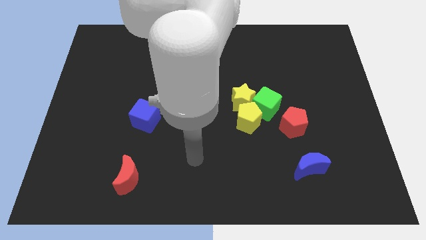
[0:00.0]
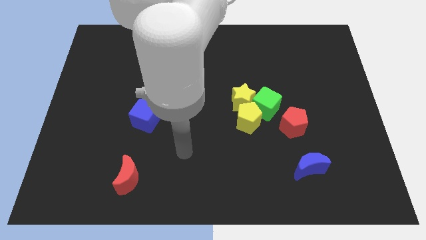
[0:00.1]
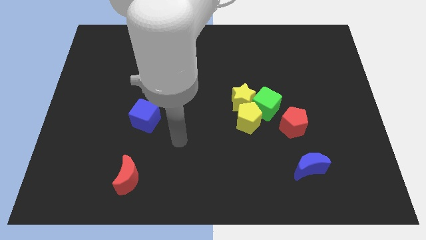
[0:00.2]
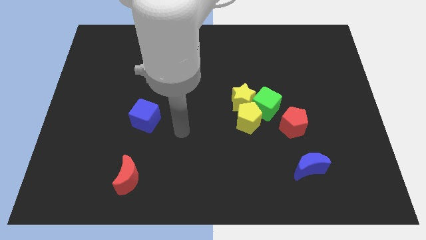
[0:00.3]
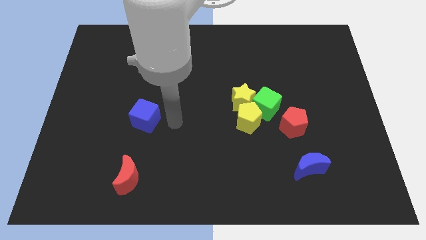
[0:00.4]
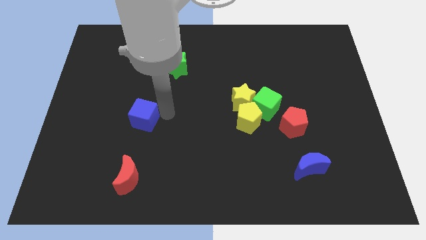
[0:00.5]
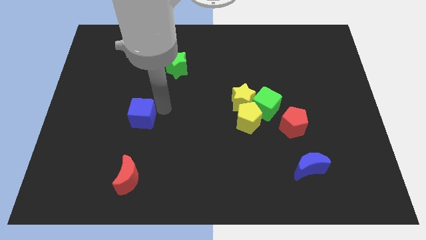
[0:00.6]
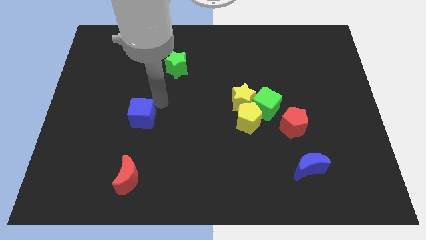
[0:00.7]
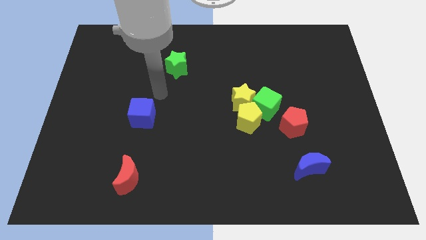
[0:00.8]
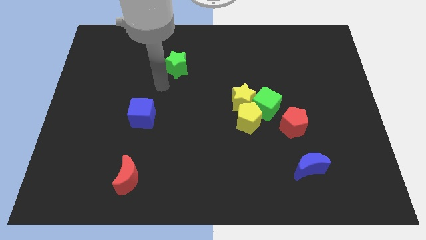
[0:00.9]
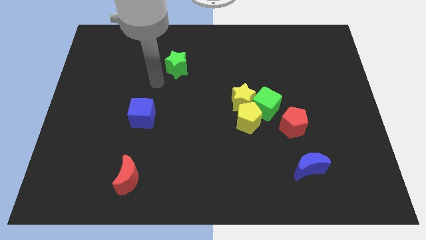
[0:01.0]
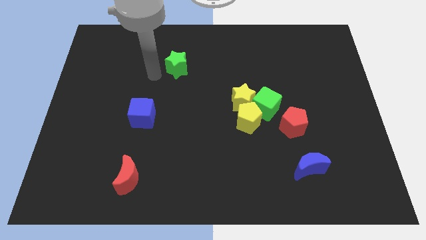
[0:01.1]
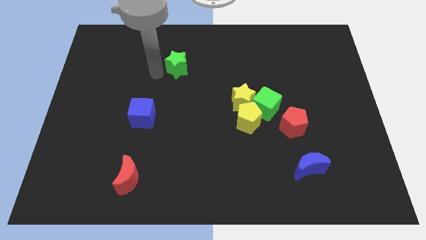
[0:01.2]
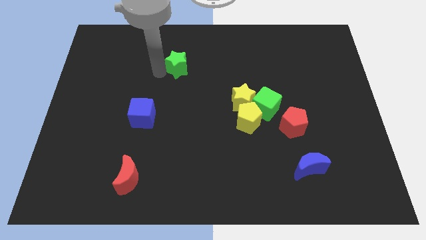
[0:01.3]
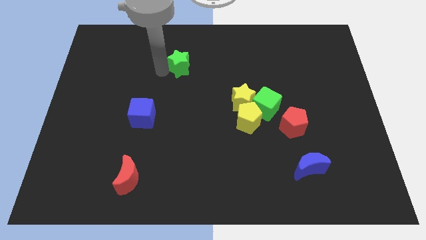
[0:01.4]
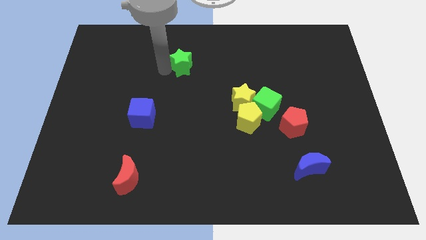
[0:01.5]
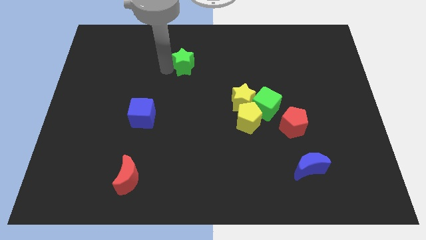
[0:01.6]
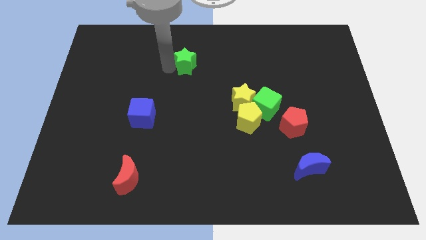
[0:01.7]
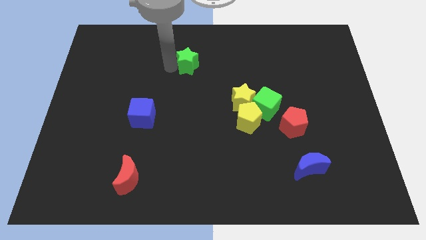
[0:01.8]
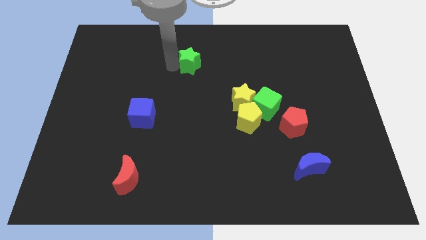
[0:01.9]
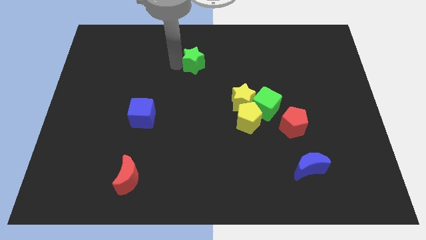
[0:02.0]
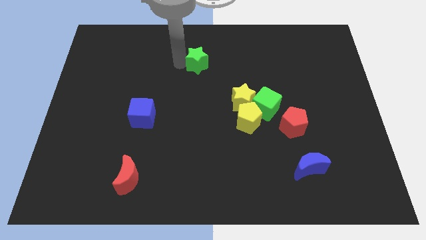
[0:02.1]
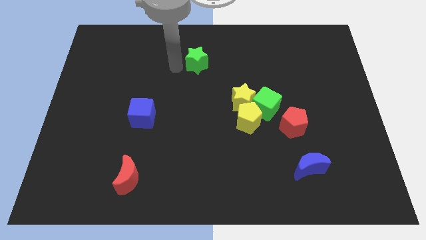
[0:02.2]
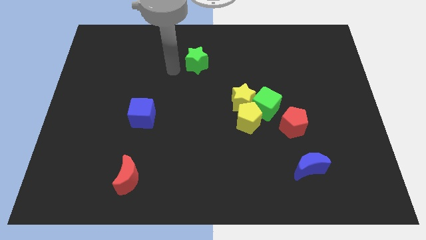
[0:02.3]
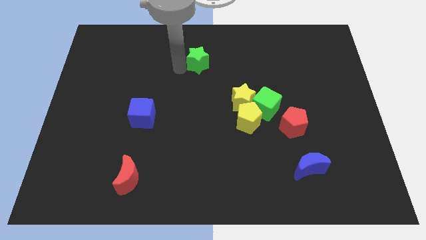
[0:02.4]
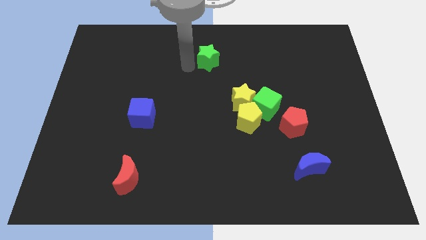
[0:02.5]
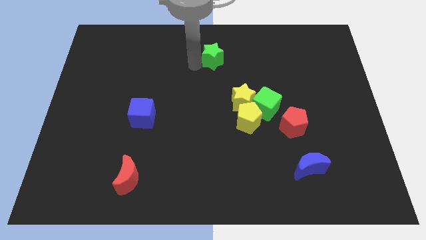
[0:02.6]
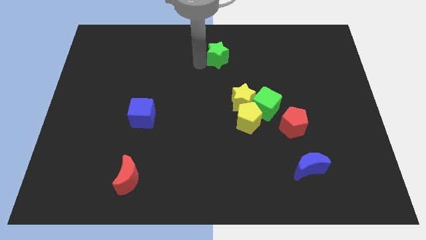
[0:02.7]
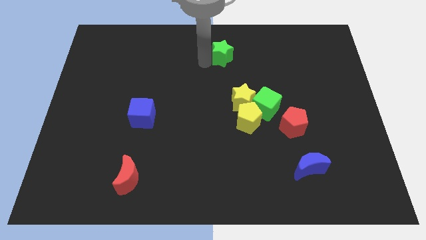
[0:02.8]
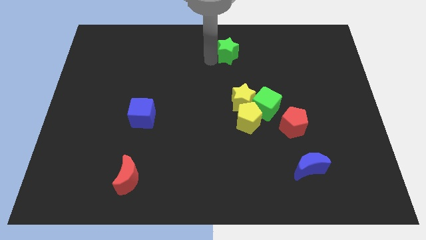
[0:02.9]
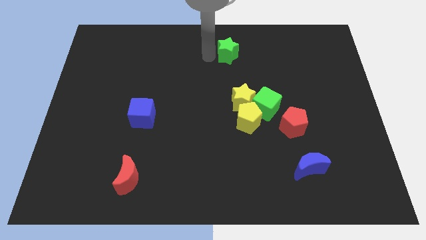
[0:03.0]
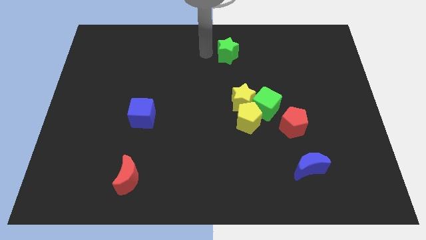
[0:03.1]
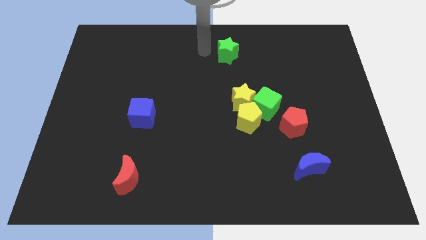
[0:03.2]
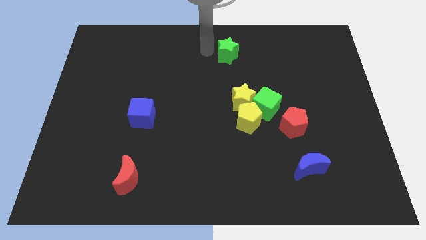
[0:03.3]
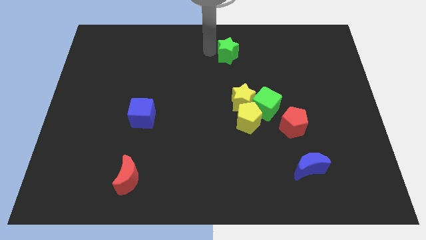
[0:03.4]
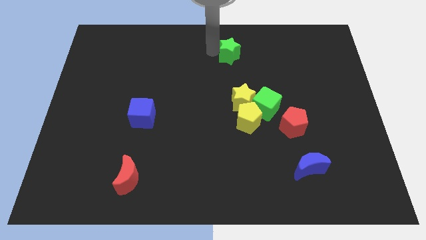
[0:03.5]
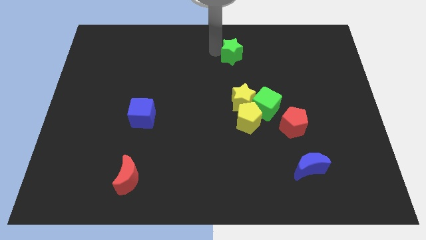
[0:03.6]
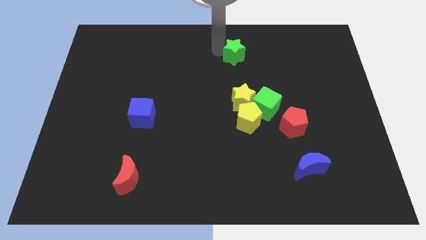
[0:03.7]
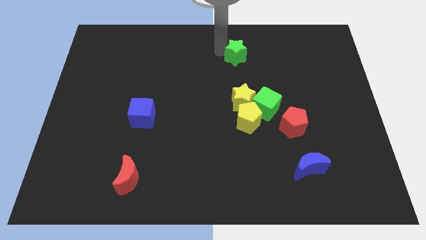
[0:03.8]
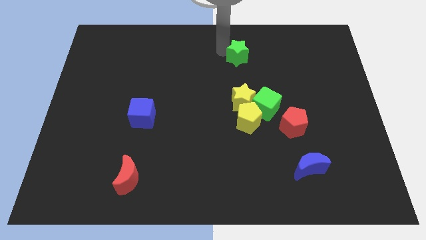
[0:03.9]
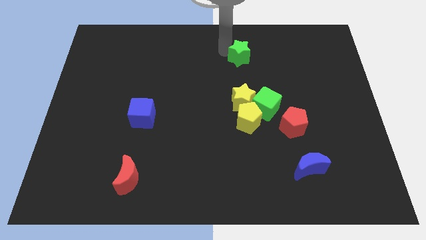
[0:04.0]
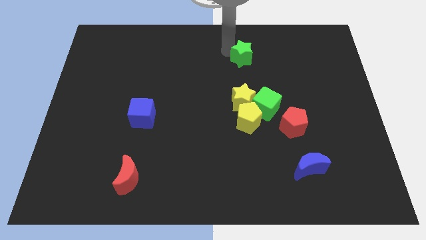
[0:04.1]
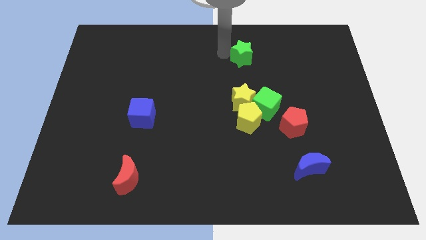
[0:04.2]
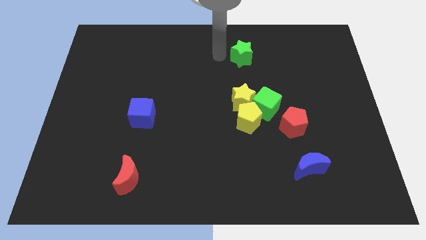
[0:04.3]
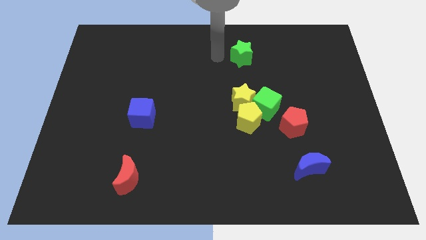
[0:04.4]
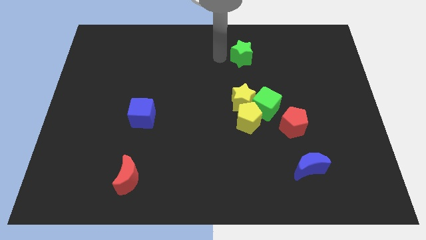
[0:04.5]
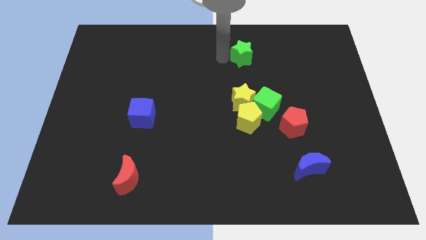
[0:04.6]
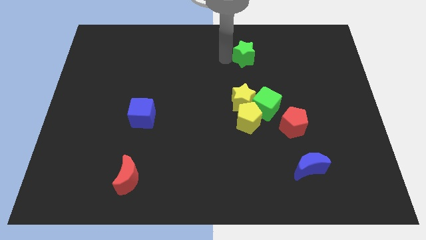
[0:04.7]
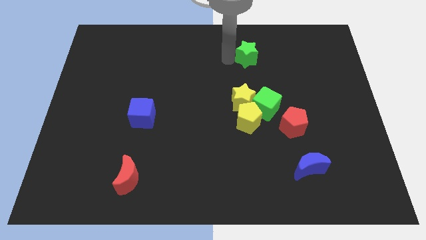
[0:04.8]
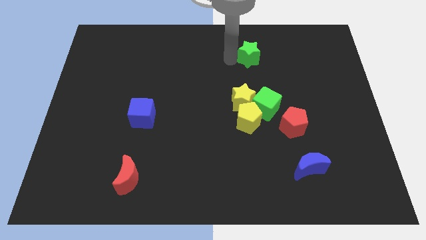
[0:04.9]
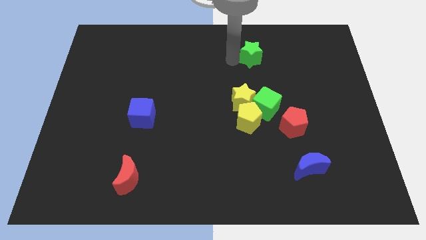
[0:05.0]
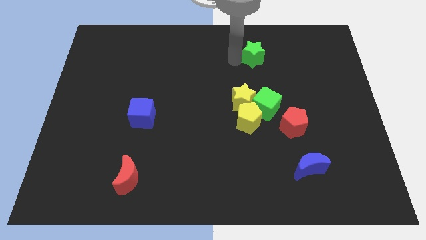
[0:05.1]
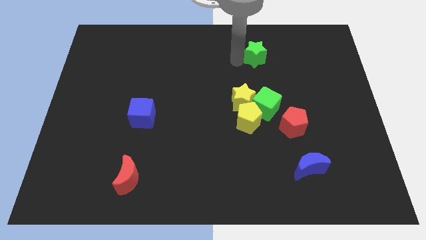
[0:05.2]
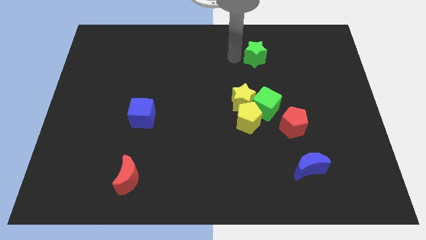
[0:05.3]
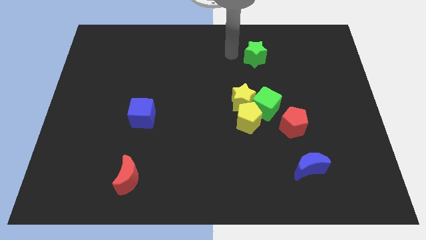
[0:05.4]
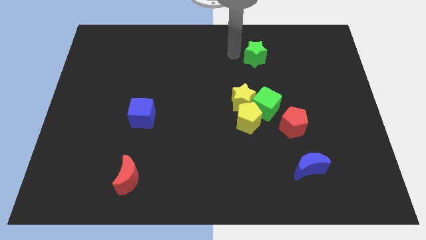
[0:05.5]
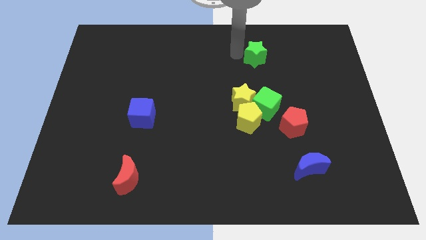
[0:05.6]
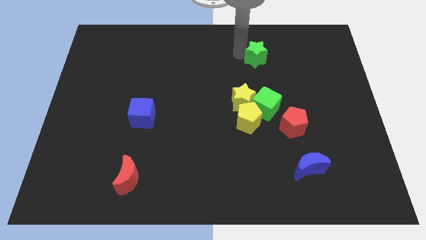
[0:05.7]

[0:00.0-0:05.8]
push the green star right

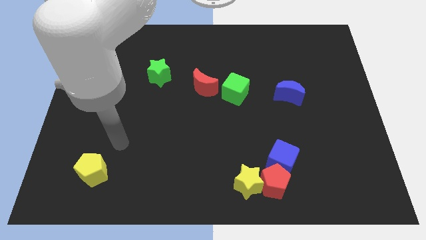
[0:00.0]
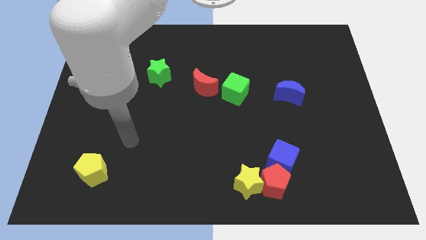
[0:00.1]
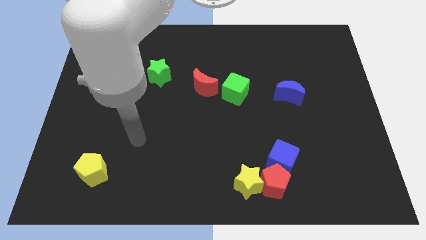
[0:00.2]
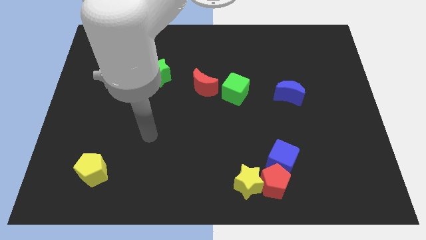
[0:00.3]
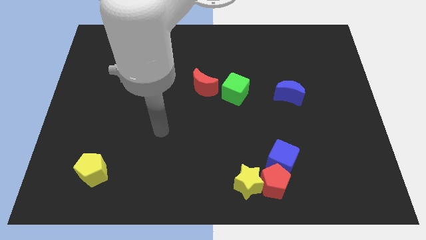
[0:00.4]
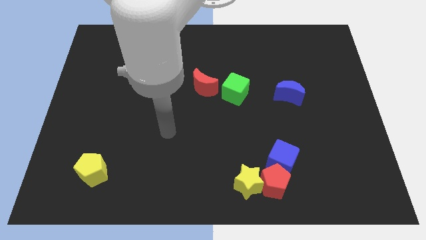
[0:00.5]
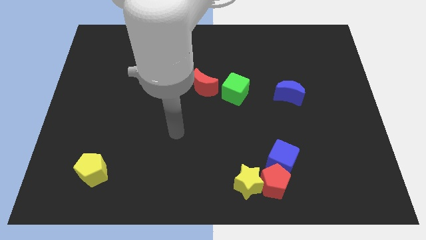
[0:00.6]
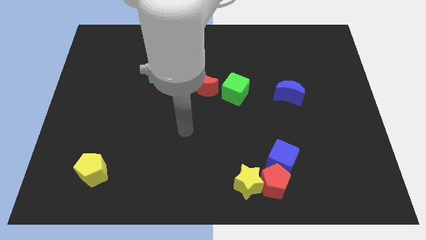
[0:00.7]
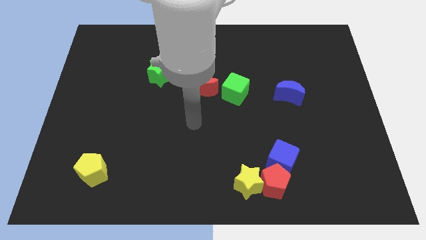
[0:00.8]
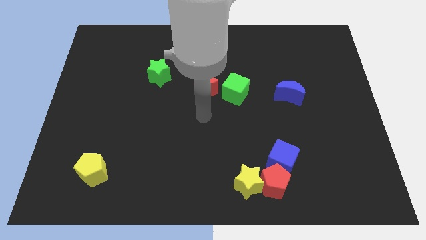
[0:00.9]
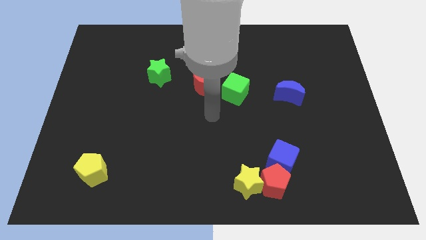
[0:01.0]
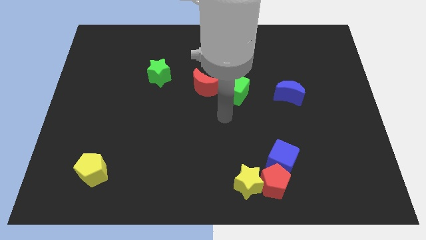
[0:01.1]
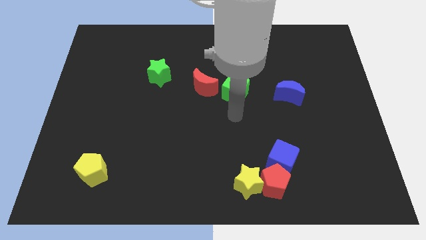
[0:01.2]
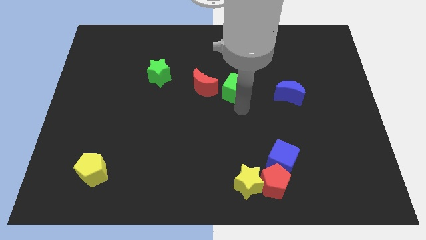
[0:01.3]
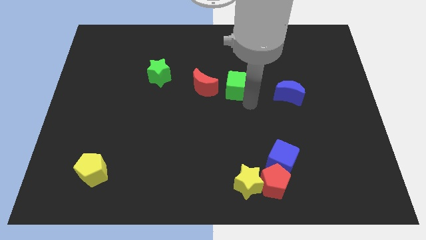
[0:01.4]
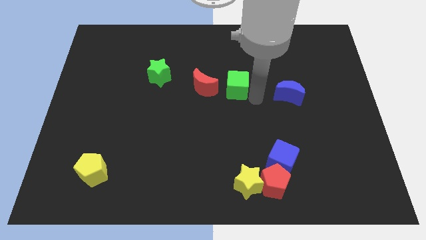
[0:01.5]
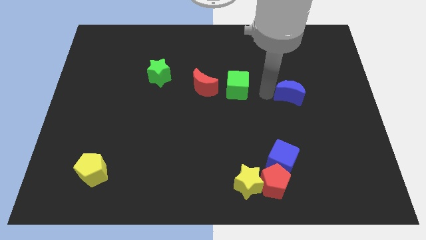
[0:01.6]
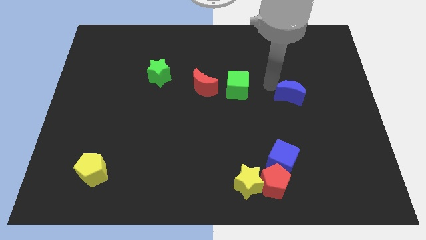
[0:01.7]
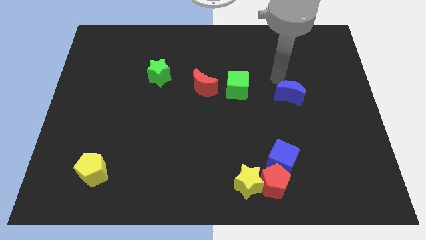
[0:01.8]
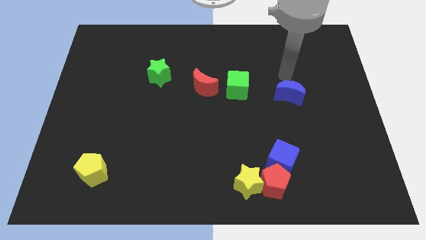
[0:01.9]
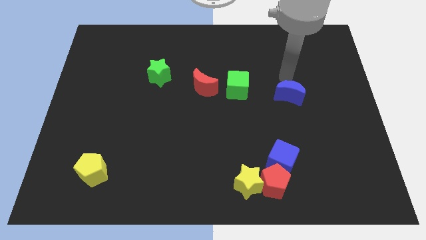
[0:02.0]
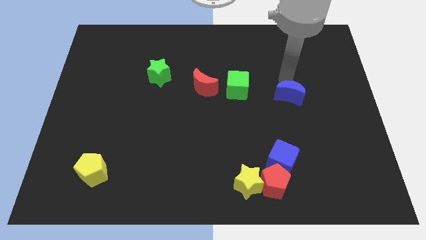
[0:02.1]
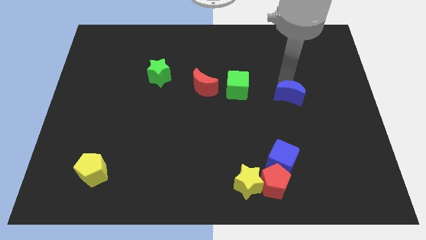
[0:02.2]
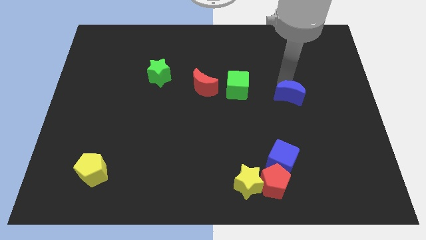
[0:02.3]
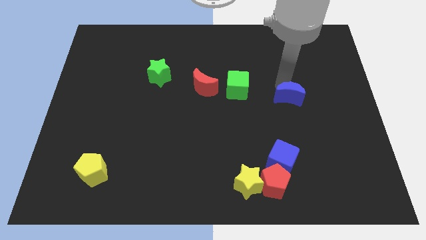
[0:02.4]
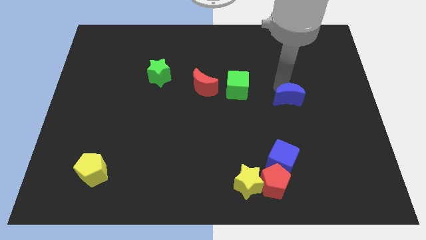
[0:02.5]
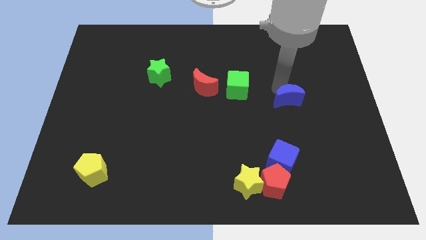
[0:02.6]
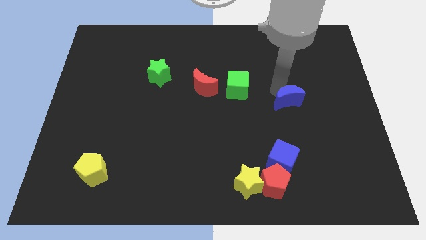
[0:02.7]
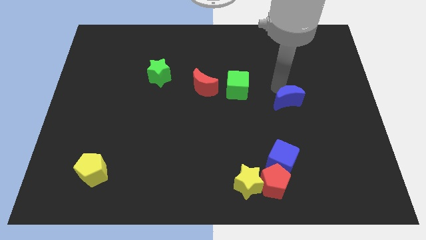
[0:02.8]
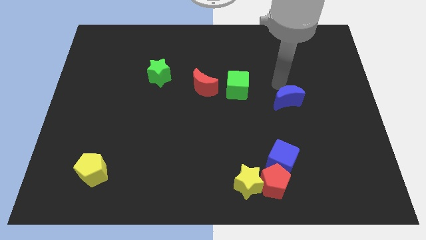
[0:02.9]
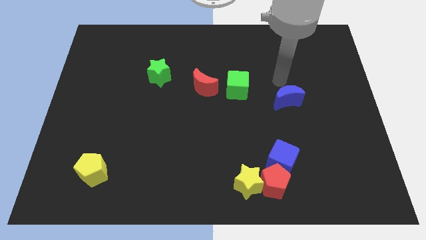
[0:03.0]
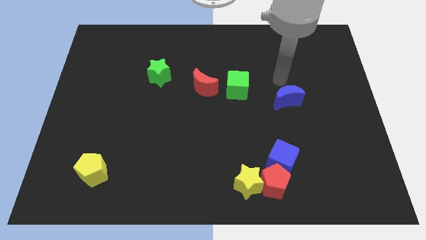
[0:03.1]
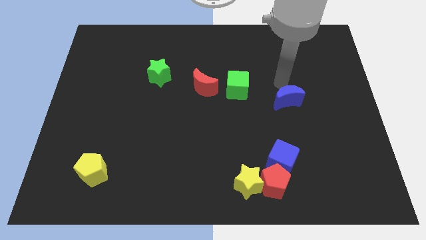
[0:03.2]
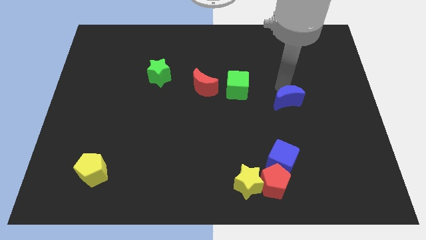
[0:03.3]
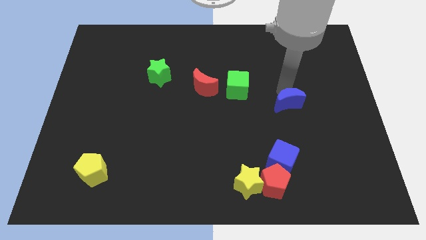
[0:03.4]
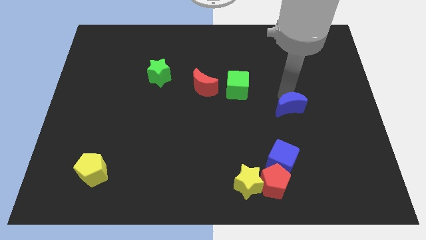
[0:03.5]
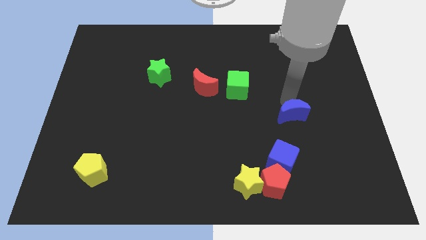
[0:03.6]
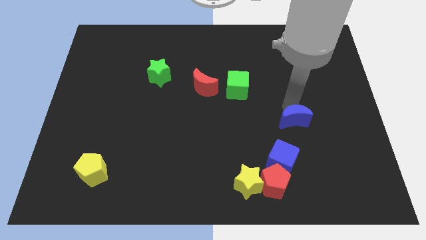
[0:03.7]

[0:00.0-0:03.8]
push the blue moon somewhat down
